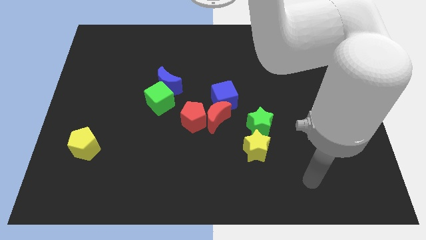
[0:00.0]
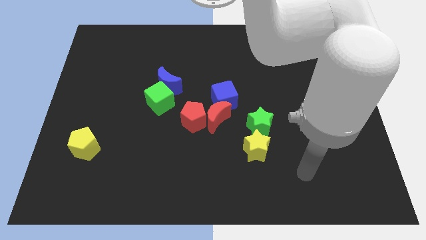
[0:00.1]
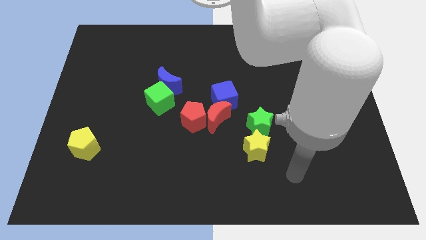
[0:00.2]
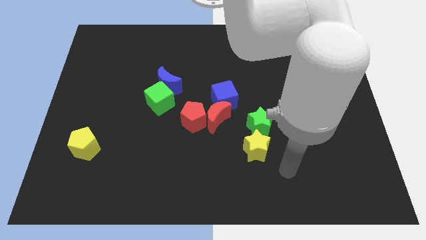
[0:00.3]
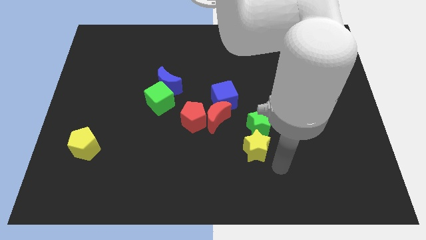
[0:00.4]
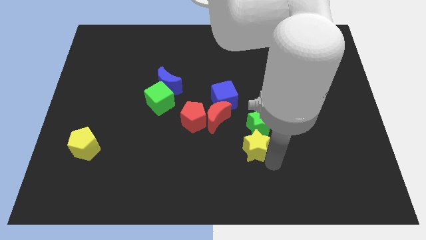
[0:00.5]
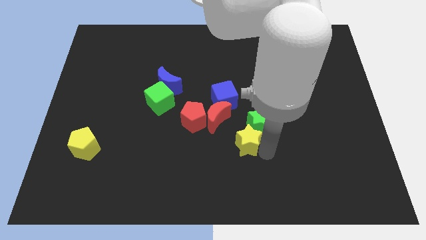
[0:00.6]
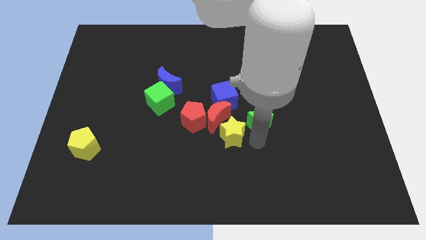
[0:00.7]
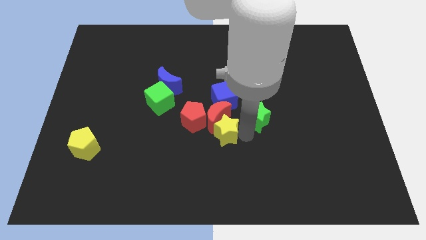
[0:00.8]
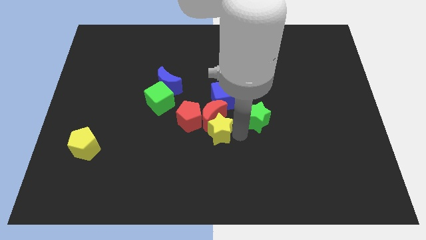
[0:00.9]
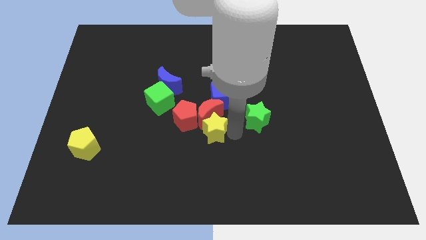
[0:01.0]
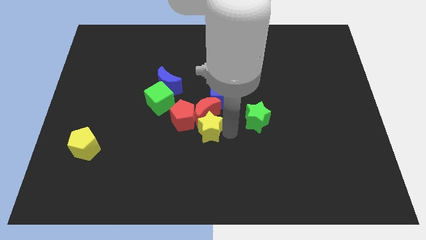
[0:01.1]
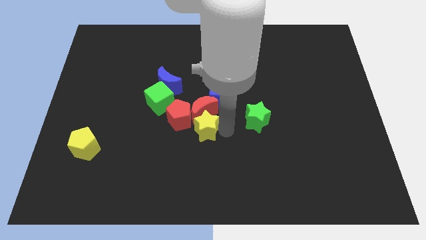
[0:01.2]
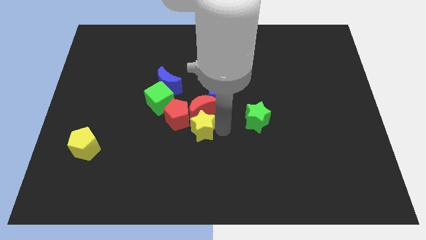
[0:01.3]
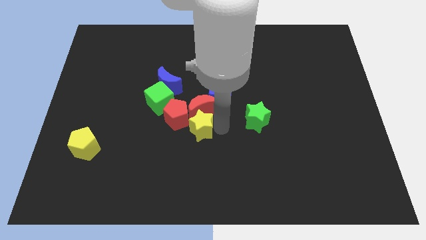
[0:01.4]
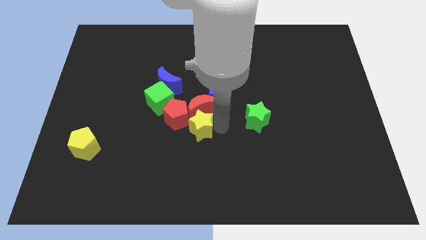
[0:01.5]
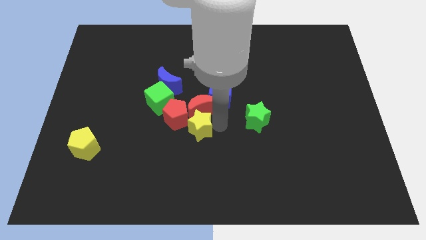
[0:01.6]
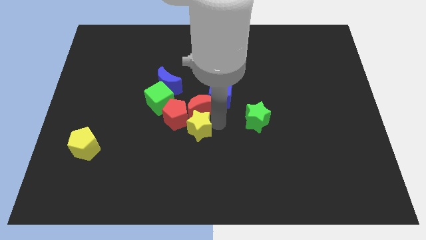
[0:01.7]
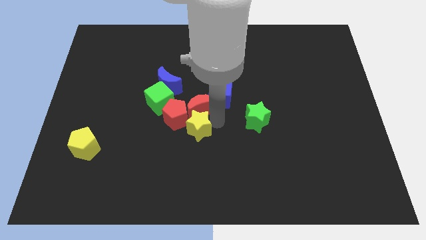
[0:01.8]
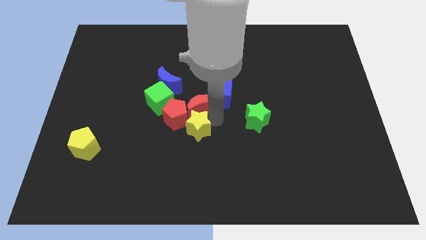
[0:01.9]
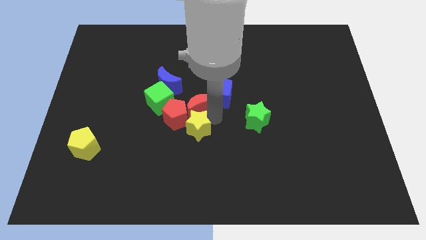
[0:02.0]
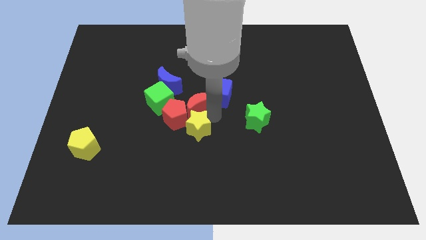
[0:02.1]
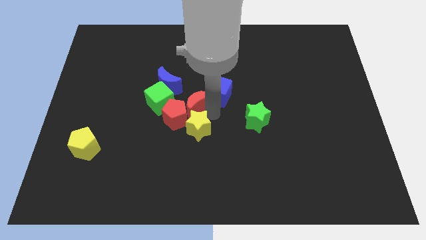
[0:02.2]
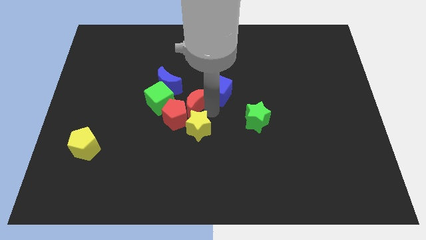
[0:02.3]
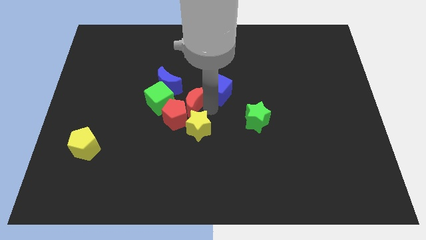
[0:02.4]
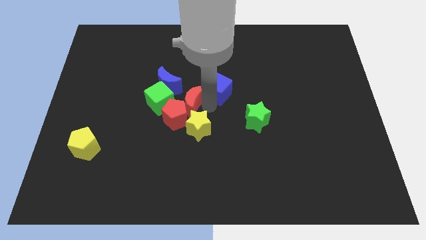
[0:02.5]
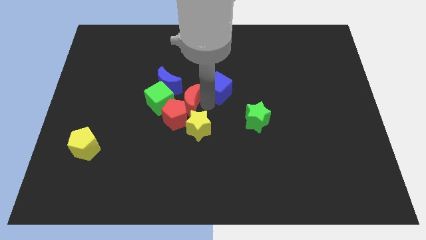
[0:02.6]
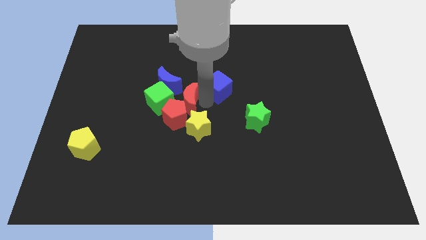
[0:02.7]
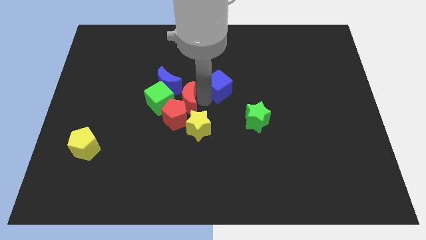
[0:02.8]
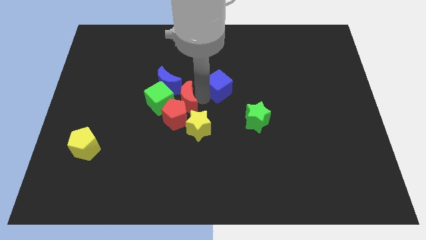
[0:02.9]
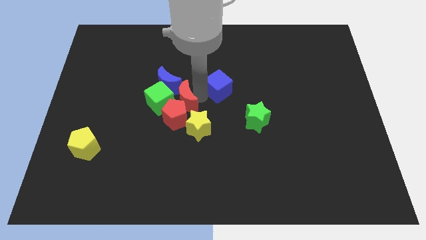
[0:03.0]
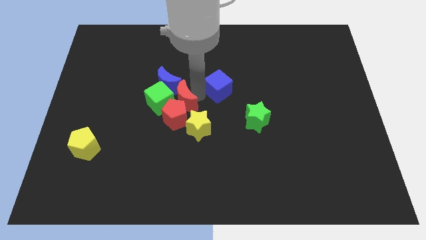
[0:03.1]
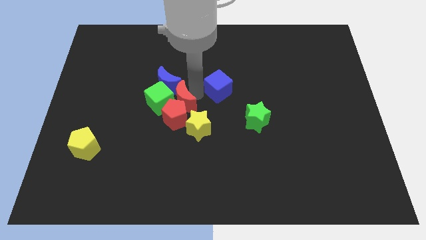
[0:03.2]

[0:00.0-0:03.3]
slide the red moon to the left a little bit

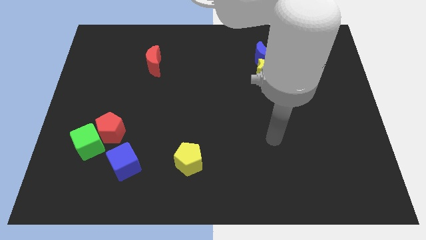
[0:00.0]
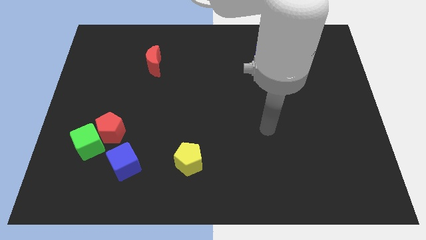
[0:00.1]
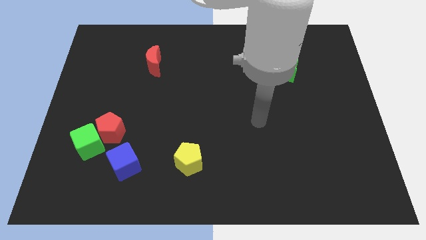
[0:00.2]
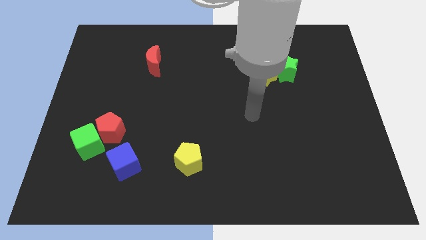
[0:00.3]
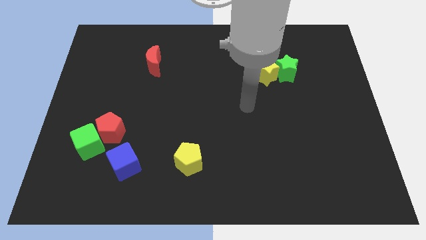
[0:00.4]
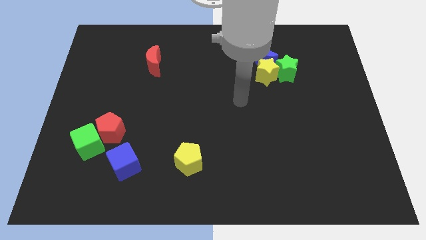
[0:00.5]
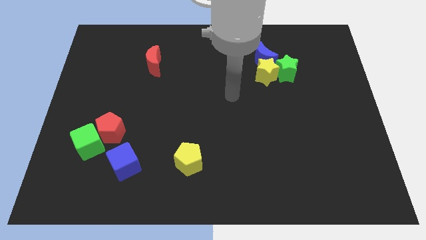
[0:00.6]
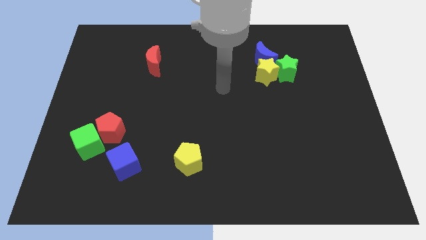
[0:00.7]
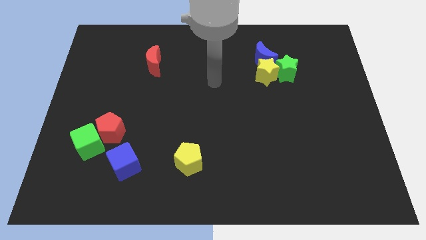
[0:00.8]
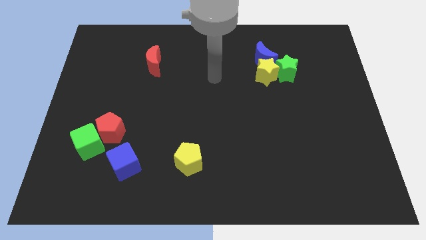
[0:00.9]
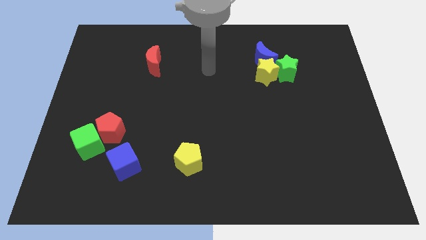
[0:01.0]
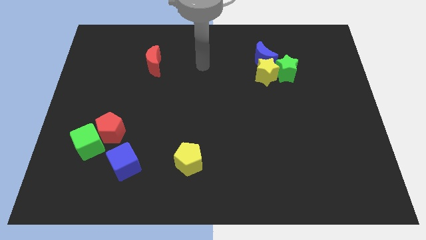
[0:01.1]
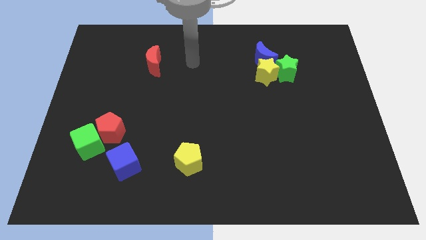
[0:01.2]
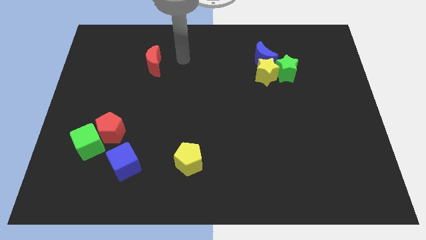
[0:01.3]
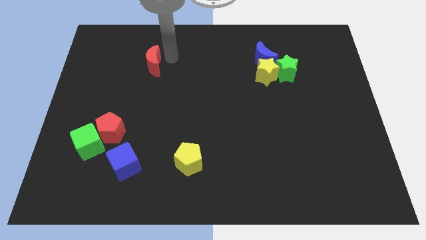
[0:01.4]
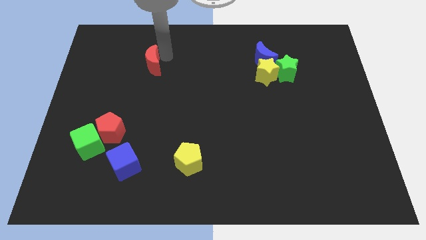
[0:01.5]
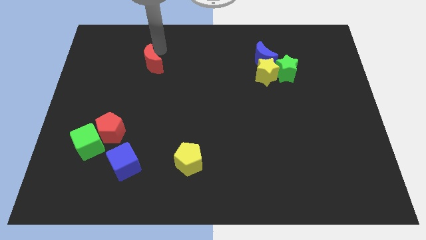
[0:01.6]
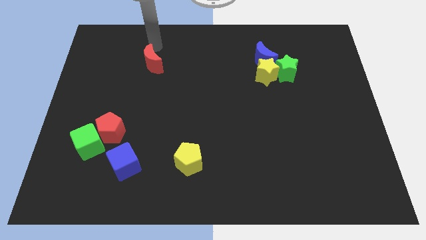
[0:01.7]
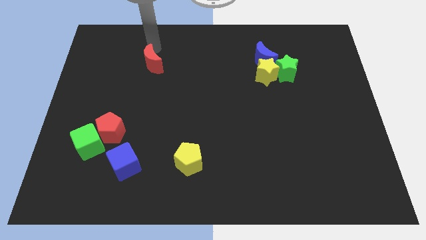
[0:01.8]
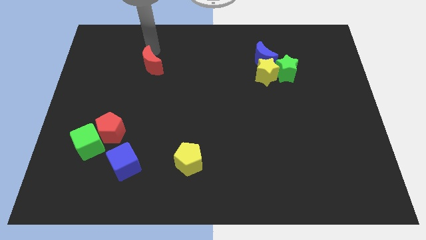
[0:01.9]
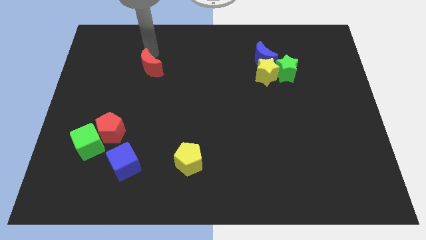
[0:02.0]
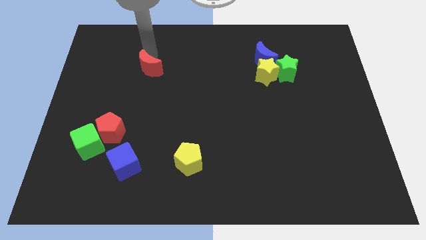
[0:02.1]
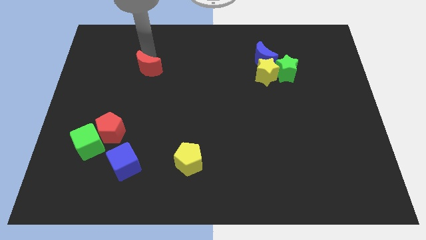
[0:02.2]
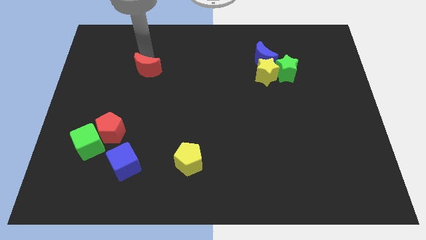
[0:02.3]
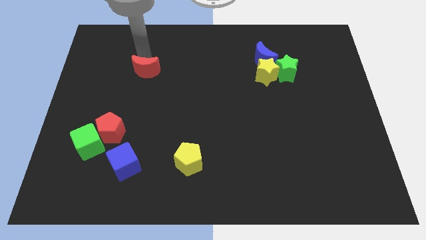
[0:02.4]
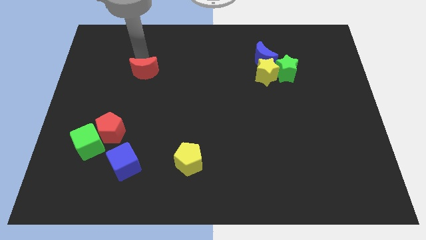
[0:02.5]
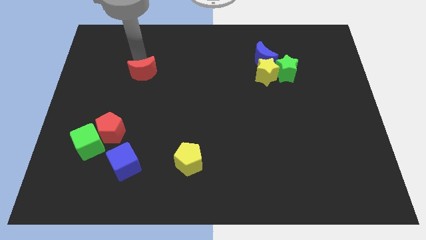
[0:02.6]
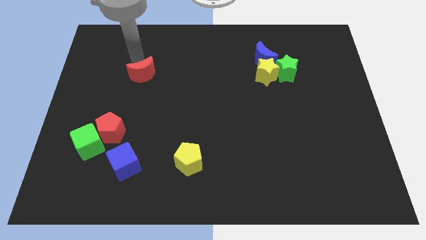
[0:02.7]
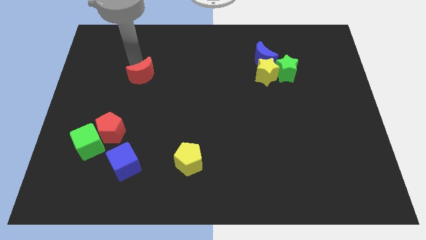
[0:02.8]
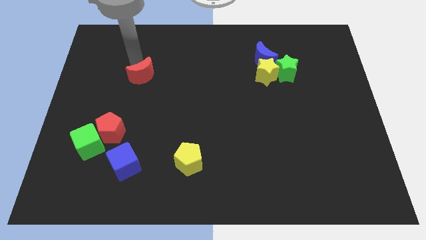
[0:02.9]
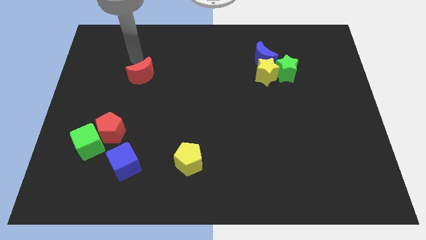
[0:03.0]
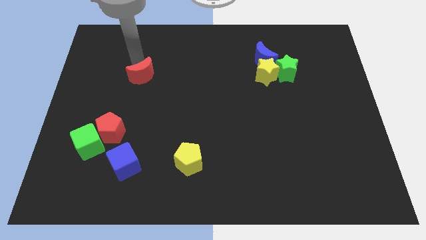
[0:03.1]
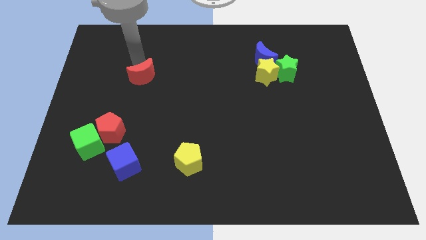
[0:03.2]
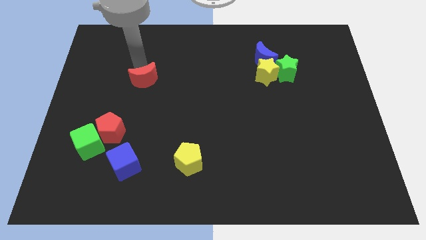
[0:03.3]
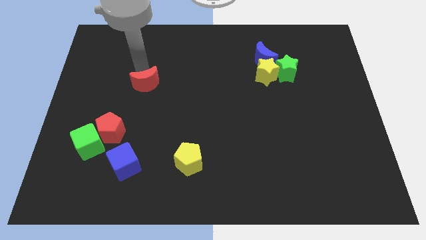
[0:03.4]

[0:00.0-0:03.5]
slightly slide the red moon down

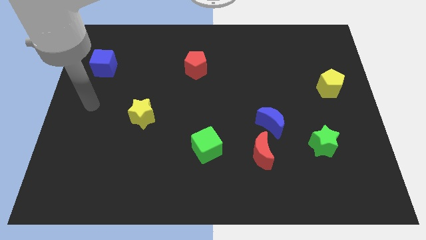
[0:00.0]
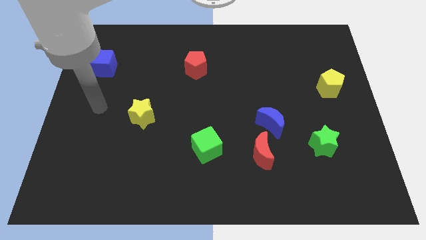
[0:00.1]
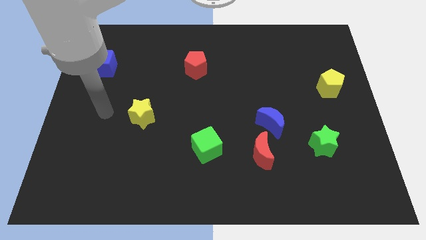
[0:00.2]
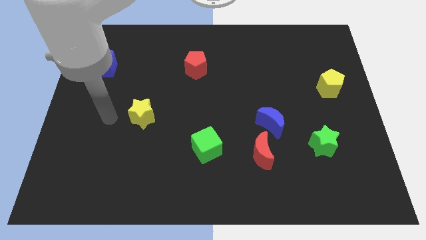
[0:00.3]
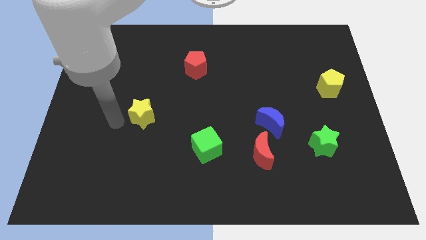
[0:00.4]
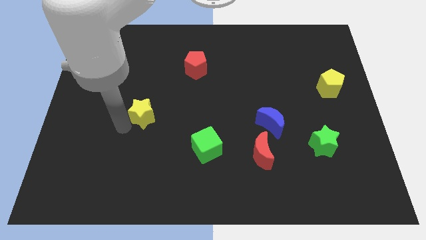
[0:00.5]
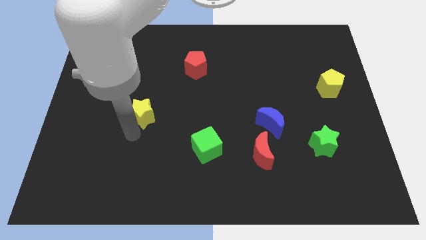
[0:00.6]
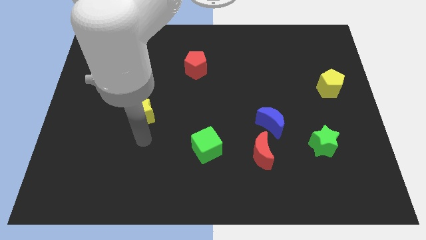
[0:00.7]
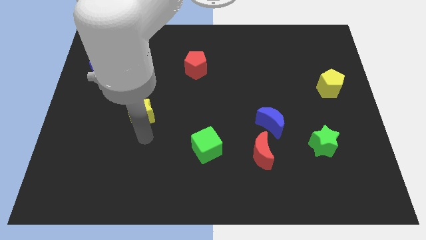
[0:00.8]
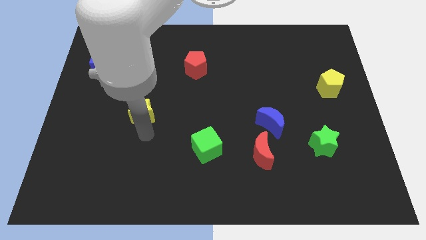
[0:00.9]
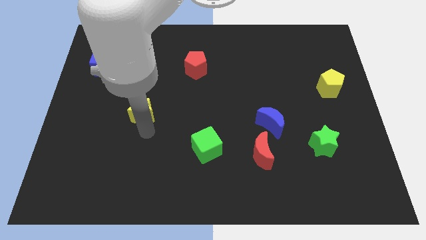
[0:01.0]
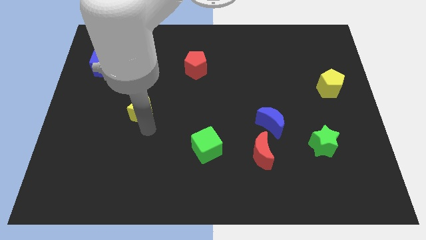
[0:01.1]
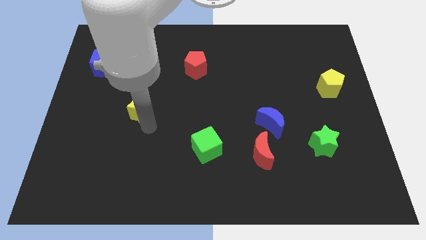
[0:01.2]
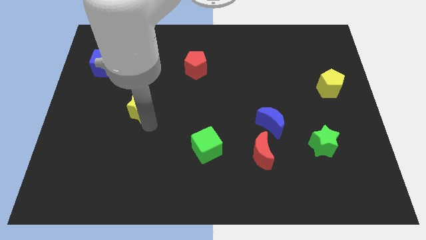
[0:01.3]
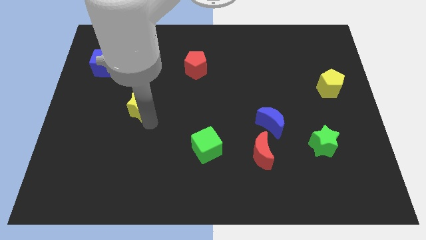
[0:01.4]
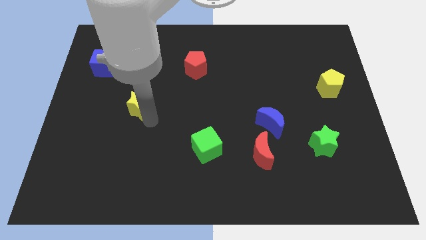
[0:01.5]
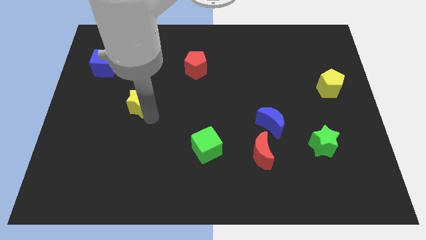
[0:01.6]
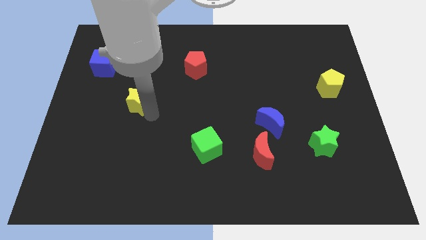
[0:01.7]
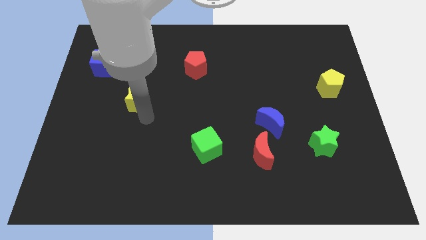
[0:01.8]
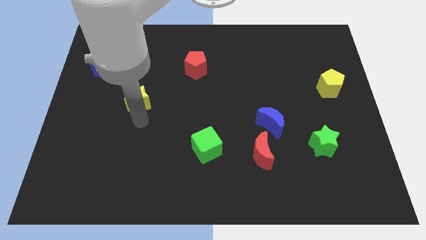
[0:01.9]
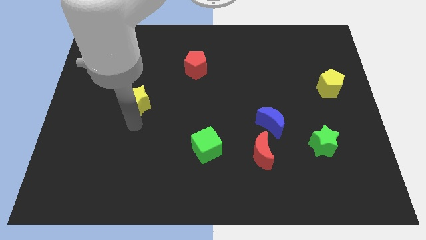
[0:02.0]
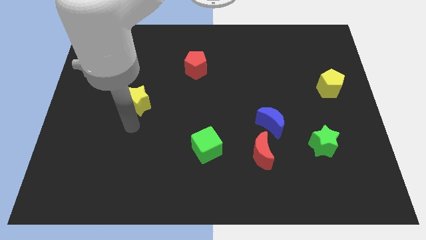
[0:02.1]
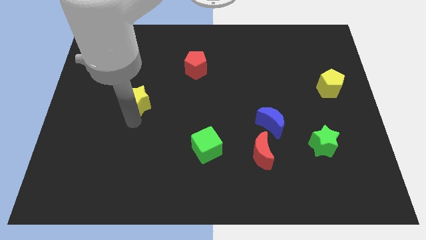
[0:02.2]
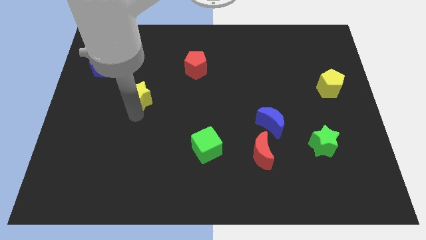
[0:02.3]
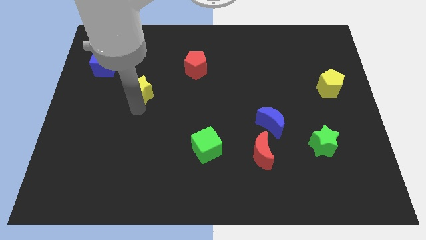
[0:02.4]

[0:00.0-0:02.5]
slide the yellow star a little bit up
